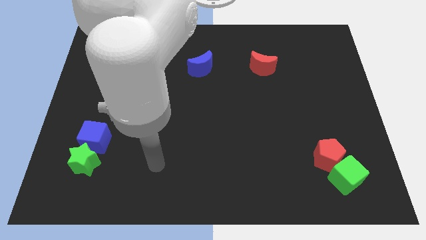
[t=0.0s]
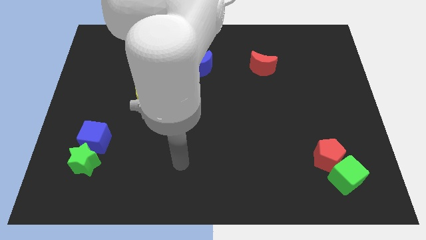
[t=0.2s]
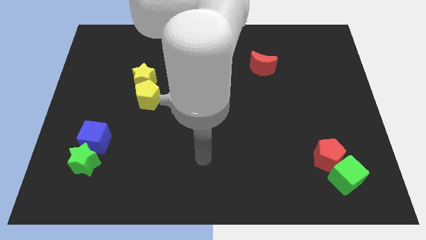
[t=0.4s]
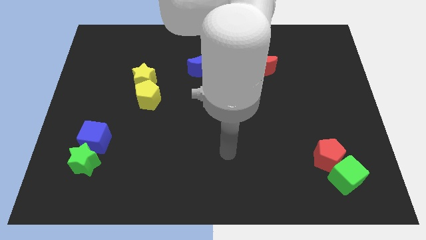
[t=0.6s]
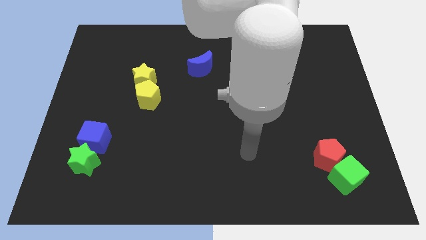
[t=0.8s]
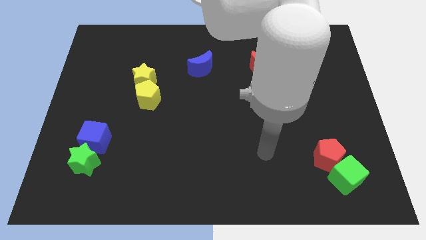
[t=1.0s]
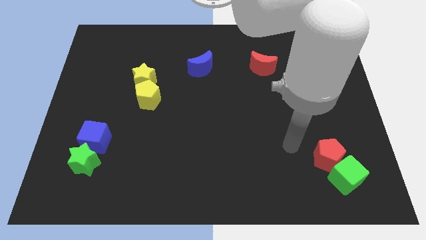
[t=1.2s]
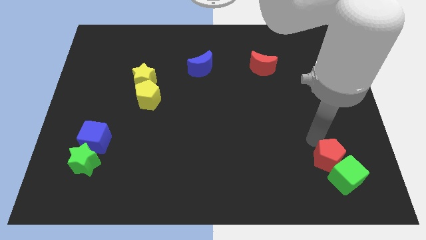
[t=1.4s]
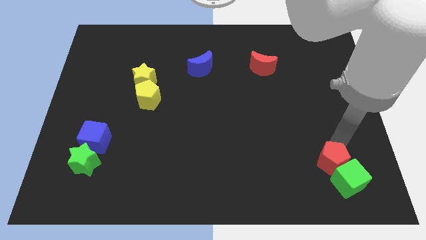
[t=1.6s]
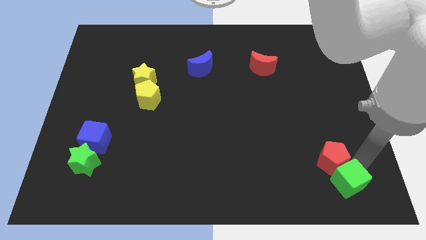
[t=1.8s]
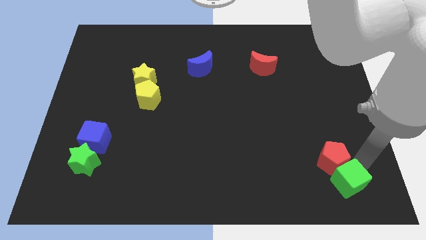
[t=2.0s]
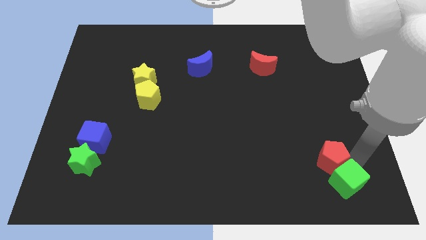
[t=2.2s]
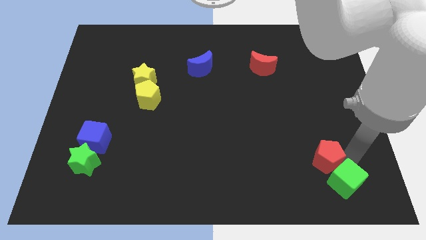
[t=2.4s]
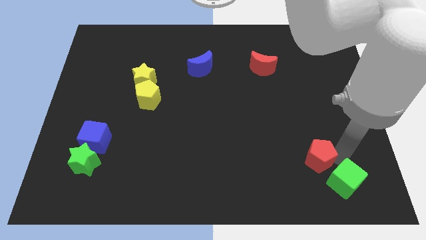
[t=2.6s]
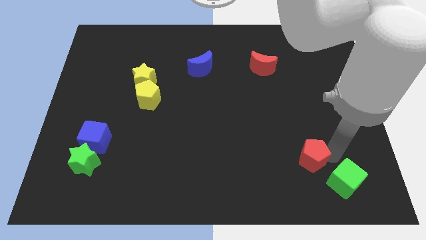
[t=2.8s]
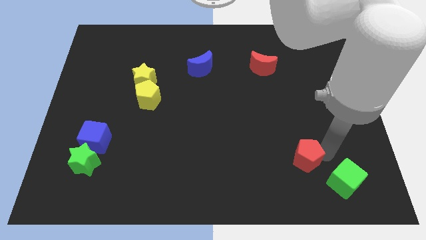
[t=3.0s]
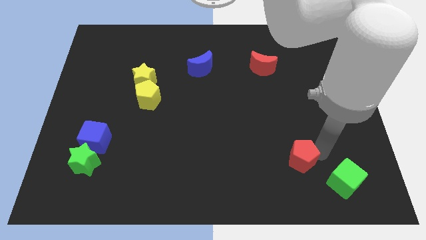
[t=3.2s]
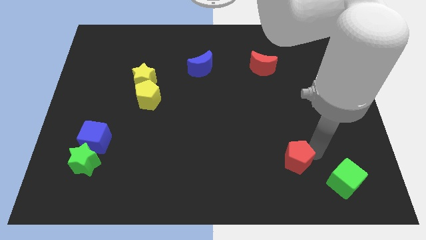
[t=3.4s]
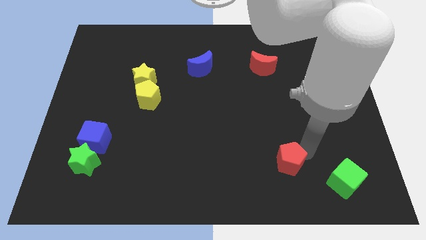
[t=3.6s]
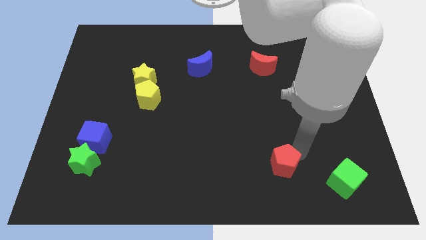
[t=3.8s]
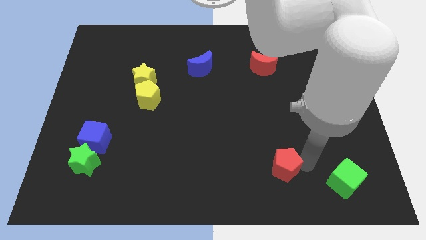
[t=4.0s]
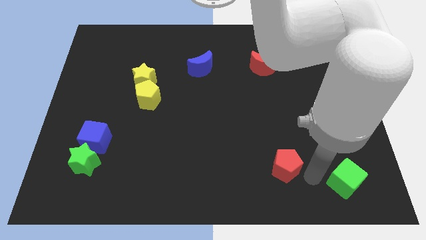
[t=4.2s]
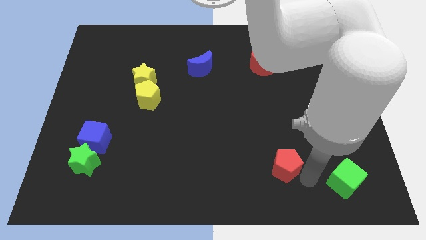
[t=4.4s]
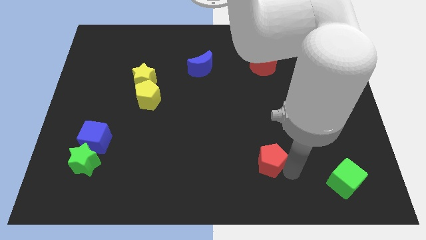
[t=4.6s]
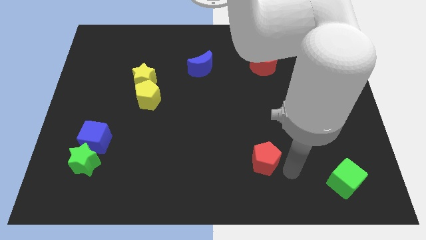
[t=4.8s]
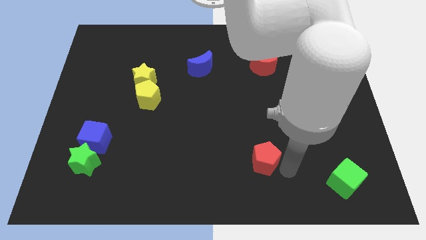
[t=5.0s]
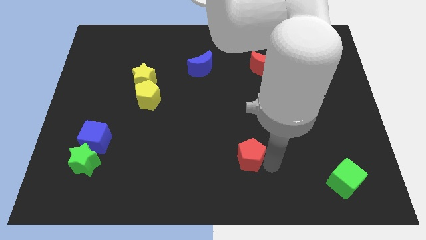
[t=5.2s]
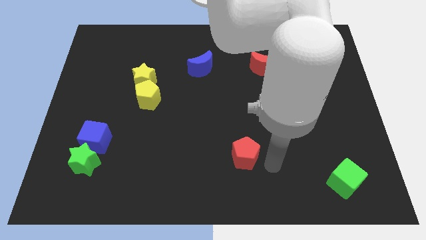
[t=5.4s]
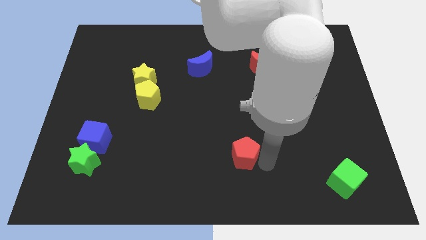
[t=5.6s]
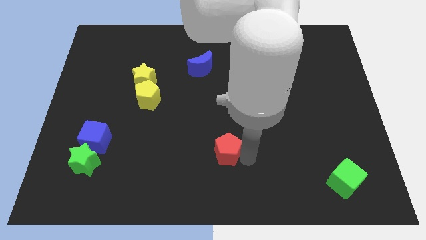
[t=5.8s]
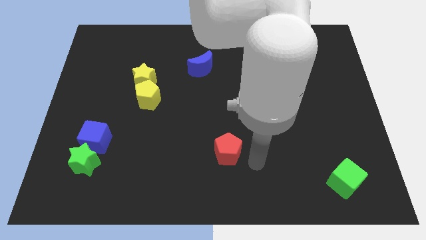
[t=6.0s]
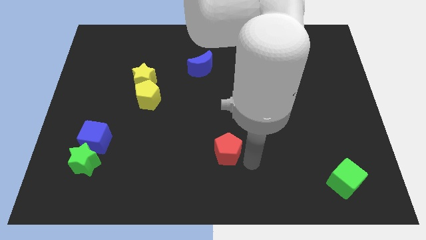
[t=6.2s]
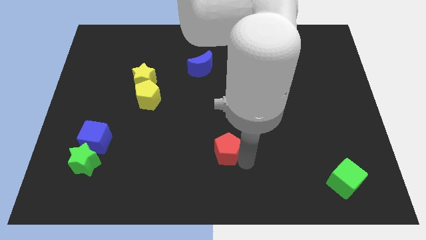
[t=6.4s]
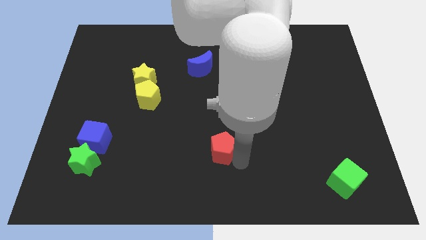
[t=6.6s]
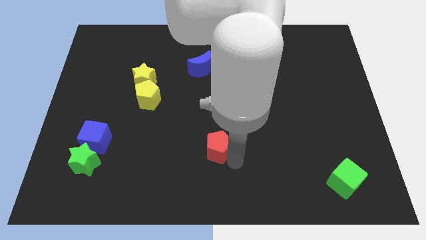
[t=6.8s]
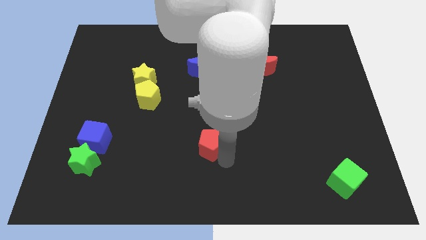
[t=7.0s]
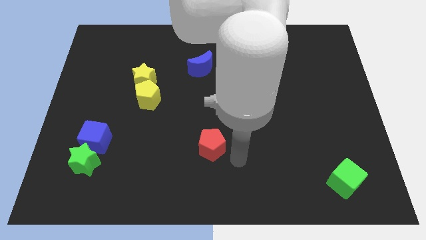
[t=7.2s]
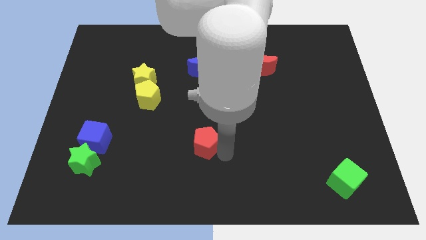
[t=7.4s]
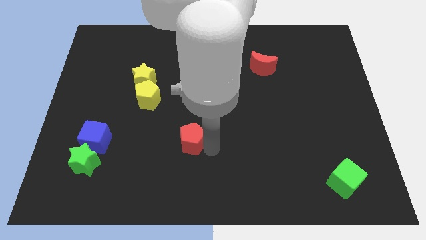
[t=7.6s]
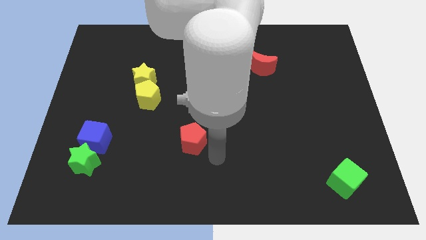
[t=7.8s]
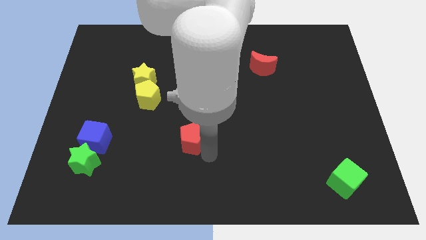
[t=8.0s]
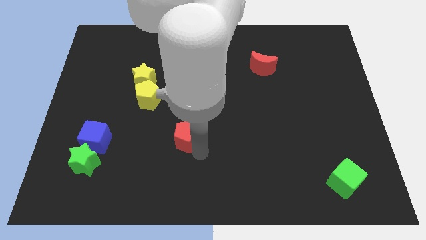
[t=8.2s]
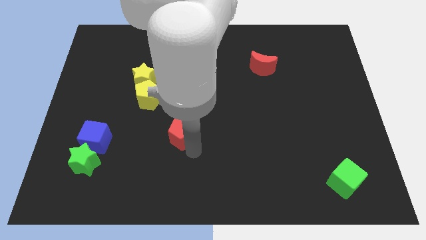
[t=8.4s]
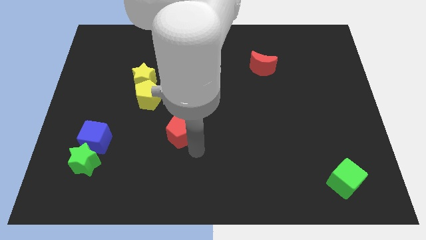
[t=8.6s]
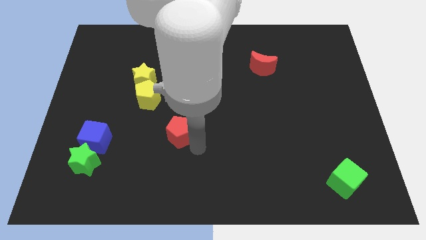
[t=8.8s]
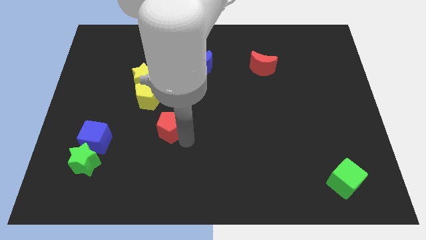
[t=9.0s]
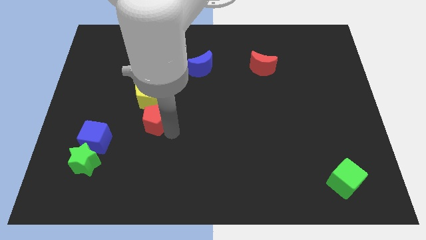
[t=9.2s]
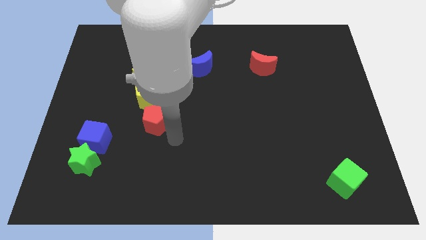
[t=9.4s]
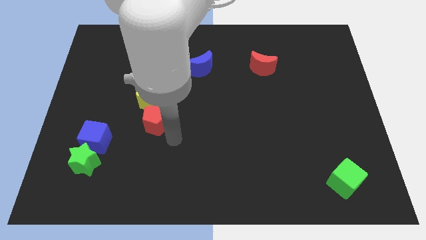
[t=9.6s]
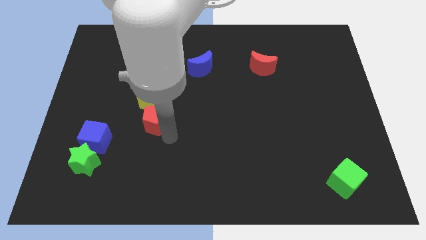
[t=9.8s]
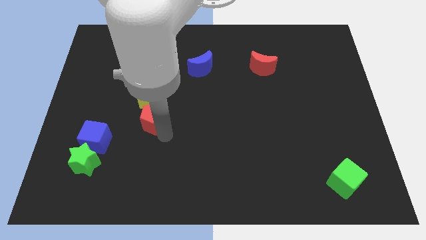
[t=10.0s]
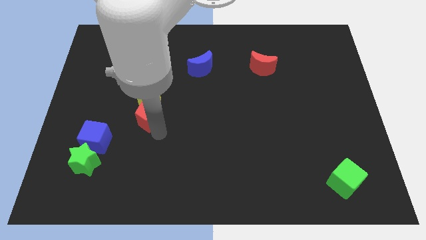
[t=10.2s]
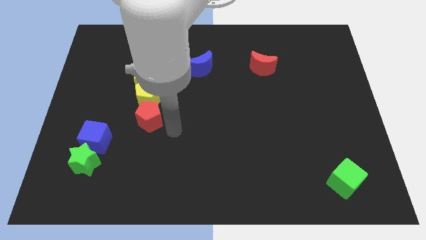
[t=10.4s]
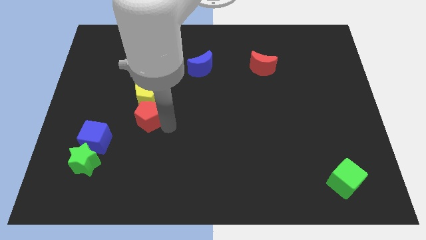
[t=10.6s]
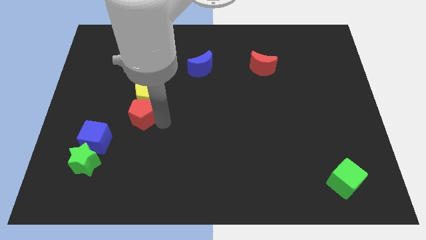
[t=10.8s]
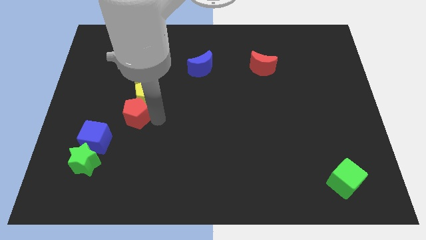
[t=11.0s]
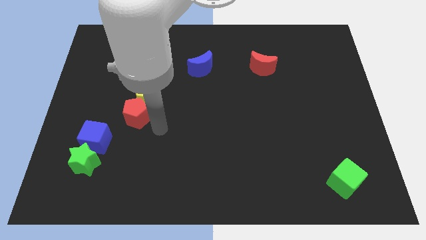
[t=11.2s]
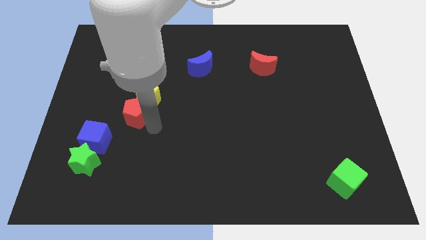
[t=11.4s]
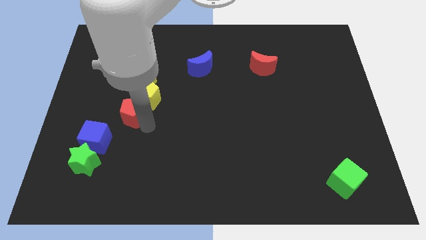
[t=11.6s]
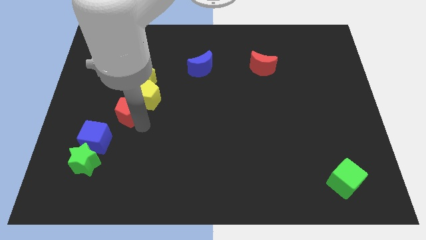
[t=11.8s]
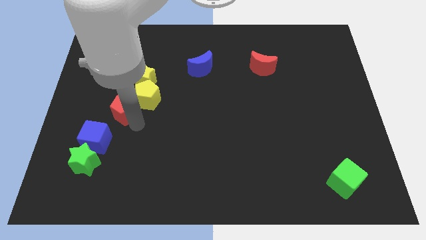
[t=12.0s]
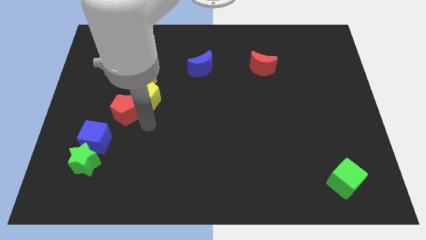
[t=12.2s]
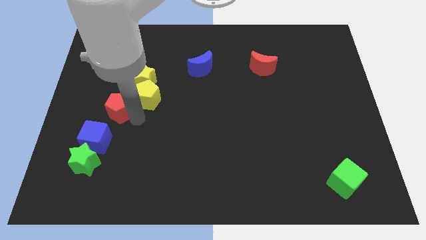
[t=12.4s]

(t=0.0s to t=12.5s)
push the red pentagon to the top side of the blue cube
